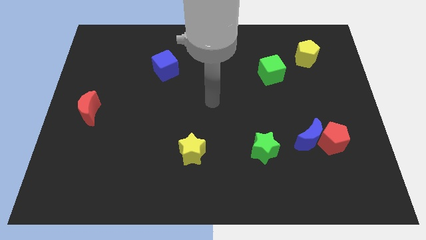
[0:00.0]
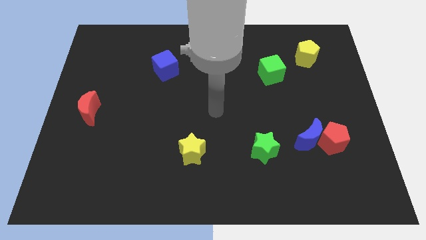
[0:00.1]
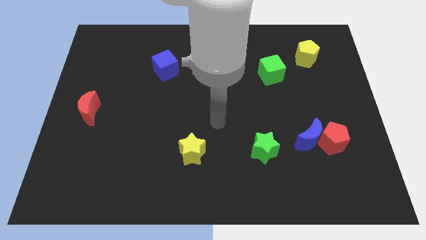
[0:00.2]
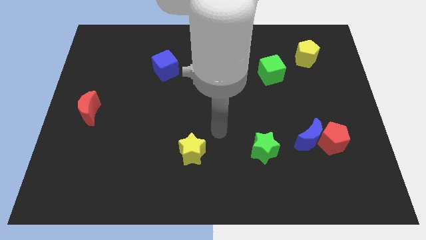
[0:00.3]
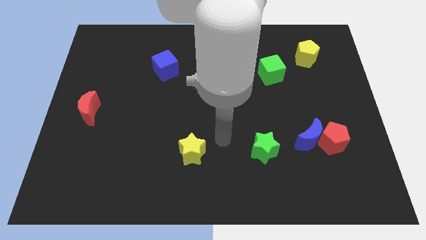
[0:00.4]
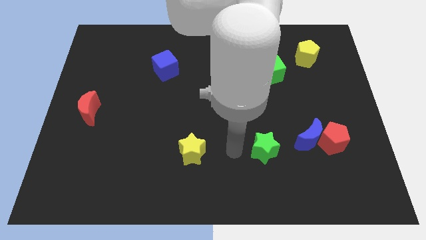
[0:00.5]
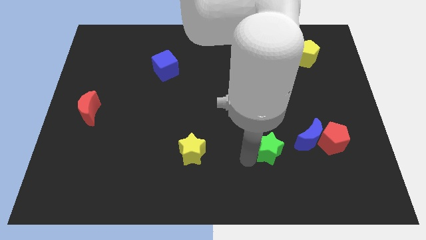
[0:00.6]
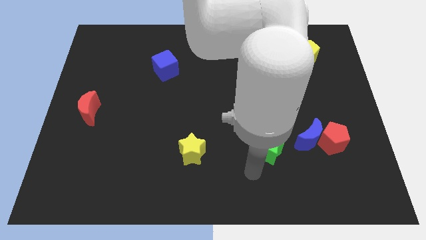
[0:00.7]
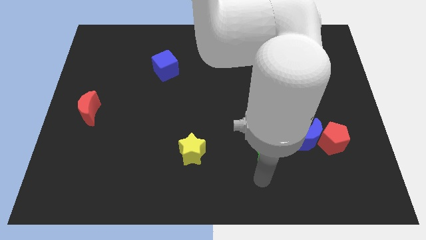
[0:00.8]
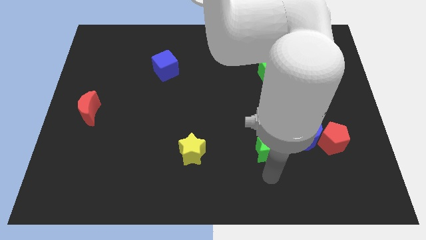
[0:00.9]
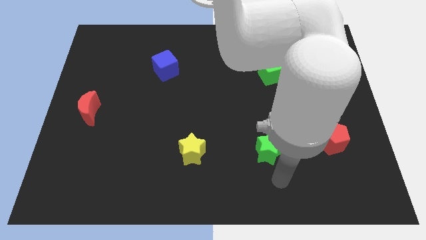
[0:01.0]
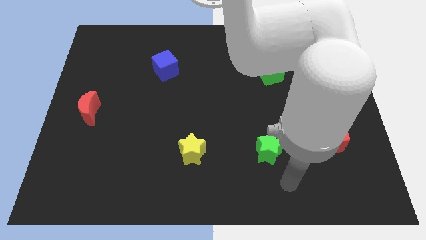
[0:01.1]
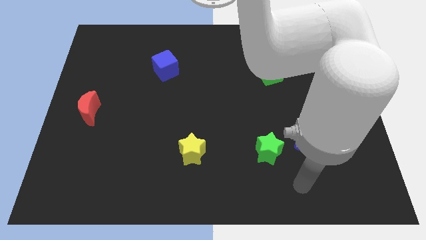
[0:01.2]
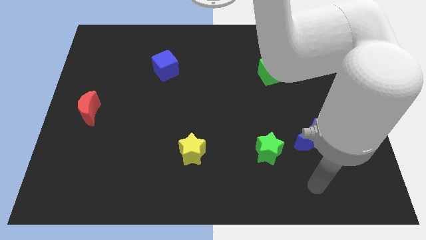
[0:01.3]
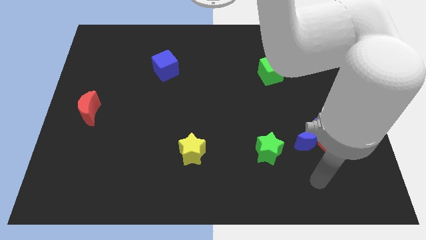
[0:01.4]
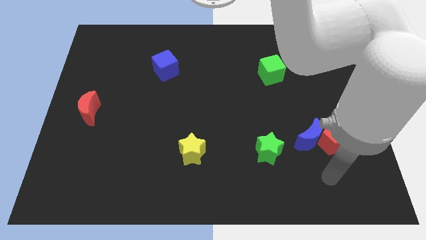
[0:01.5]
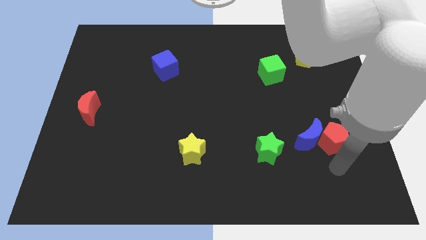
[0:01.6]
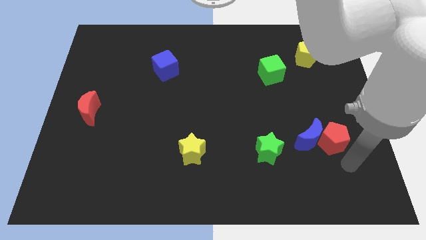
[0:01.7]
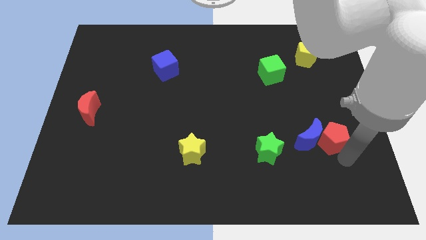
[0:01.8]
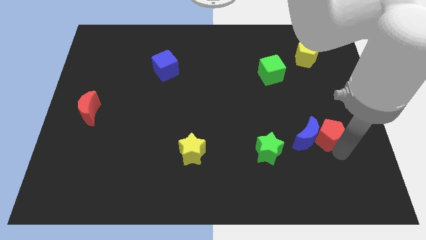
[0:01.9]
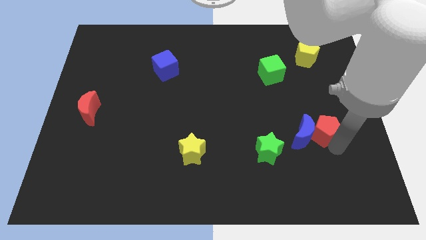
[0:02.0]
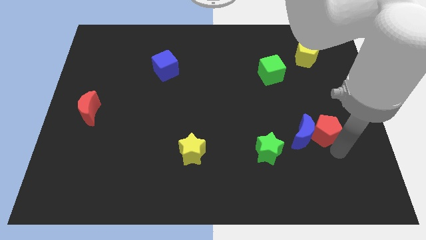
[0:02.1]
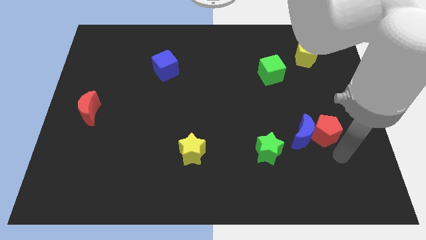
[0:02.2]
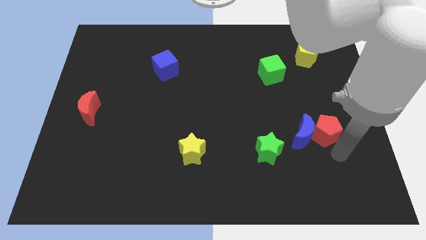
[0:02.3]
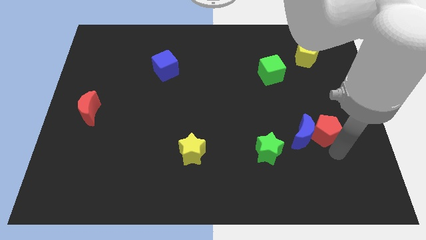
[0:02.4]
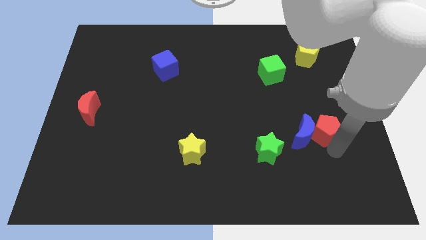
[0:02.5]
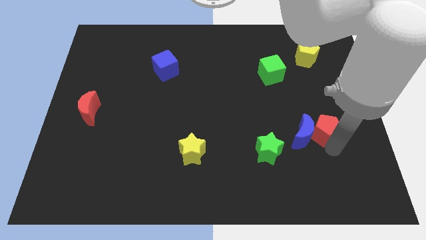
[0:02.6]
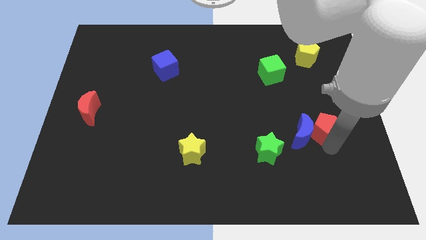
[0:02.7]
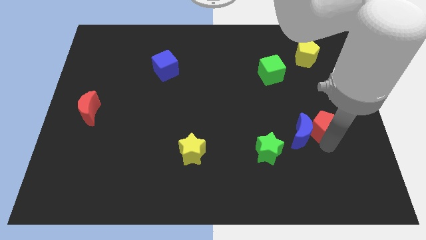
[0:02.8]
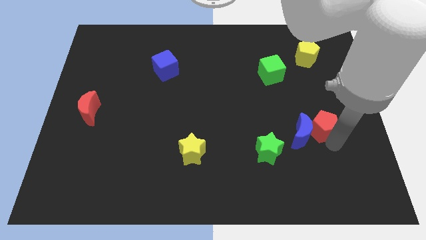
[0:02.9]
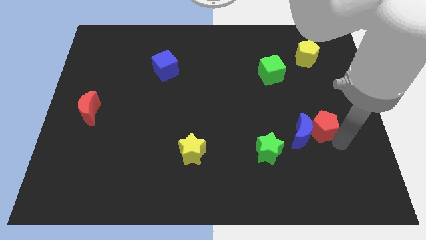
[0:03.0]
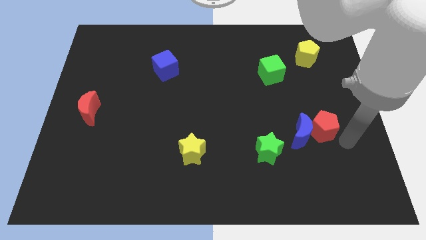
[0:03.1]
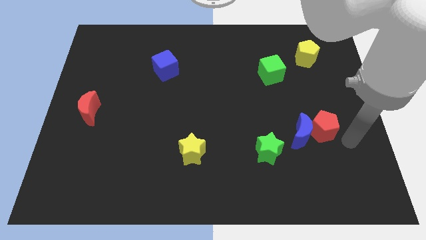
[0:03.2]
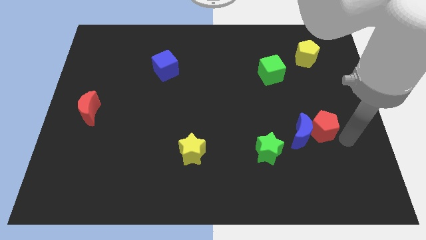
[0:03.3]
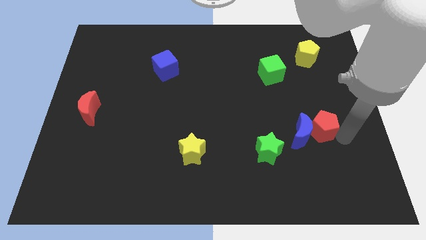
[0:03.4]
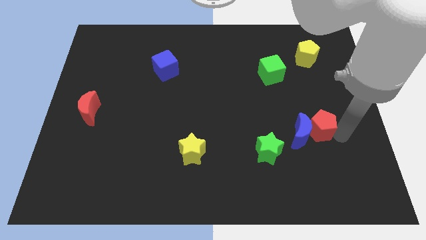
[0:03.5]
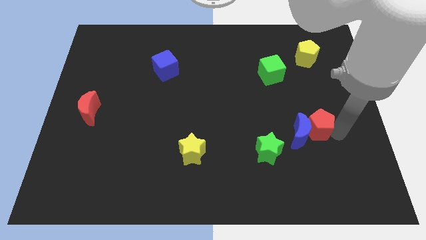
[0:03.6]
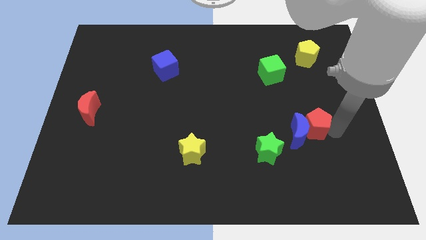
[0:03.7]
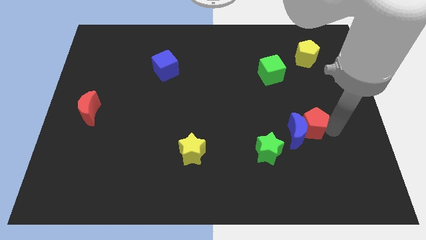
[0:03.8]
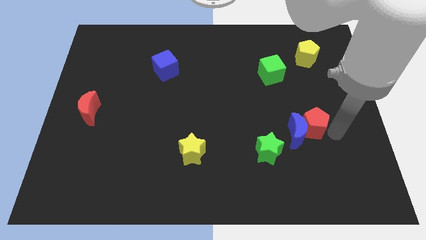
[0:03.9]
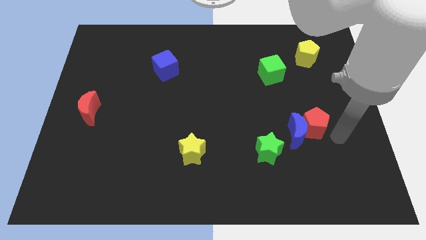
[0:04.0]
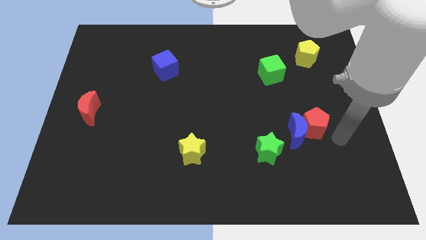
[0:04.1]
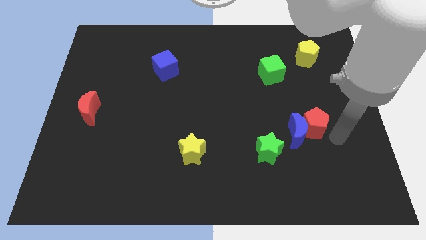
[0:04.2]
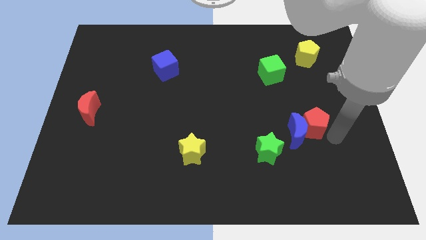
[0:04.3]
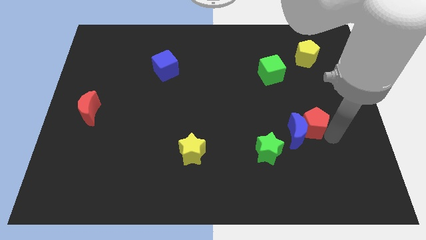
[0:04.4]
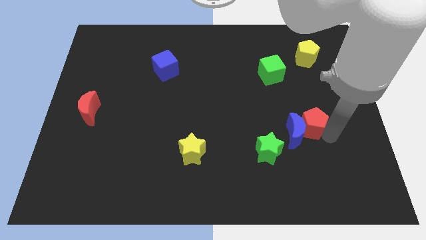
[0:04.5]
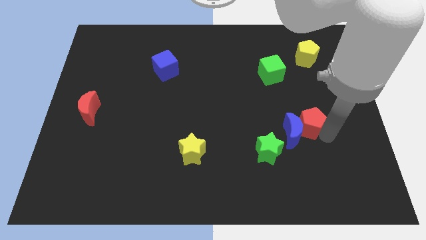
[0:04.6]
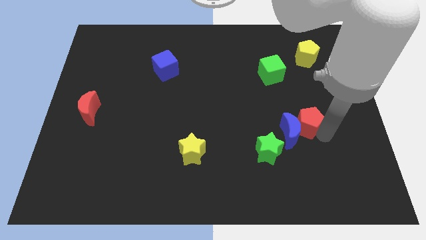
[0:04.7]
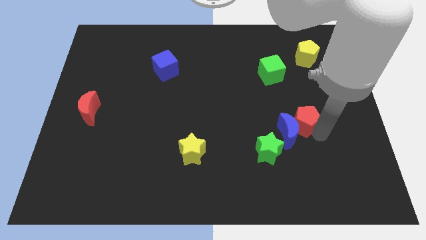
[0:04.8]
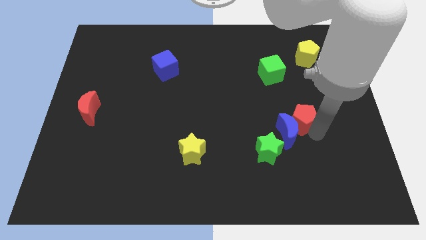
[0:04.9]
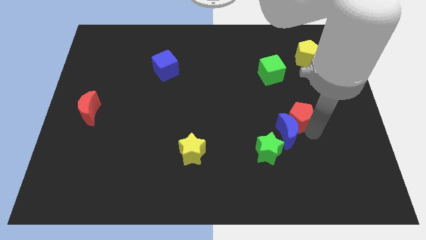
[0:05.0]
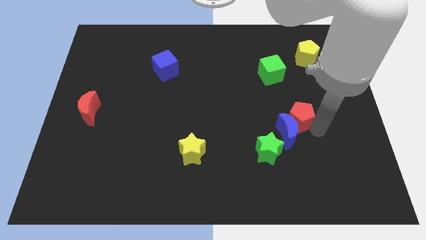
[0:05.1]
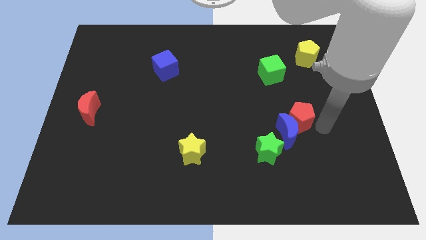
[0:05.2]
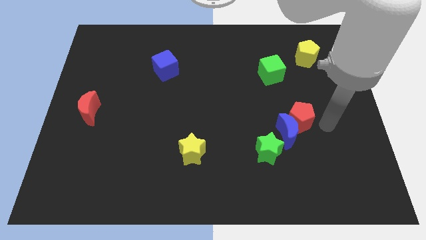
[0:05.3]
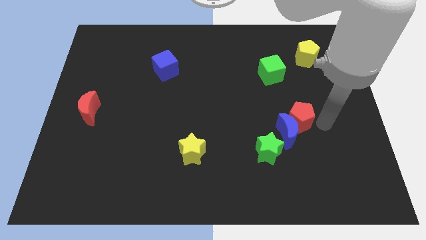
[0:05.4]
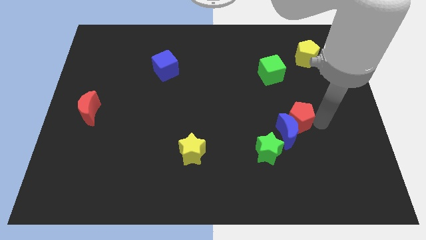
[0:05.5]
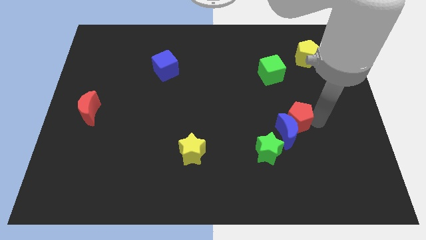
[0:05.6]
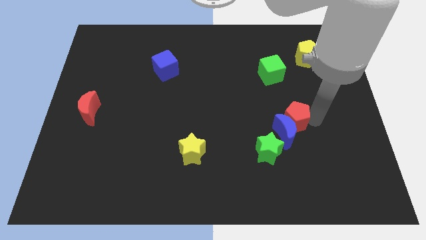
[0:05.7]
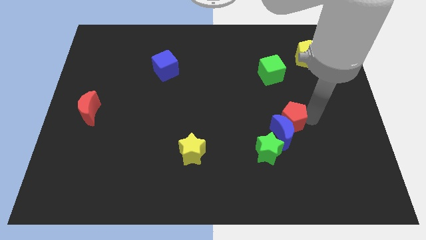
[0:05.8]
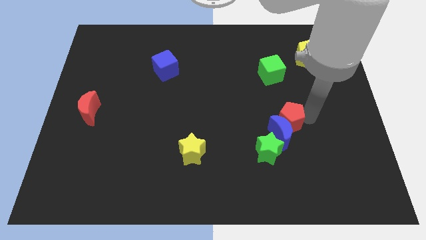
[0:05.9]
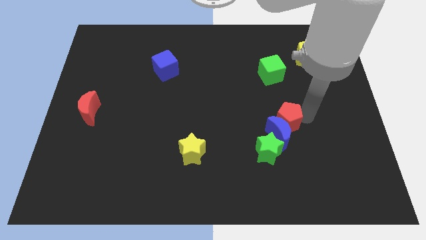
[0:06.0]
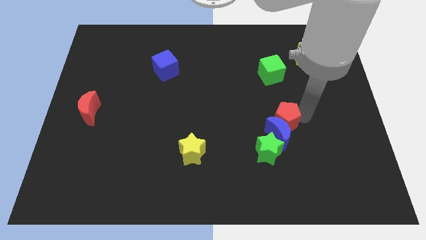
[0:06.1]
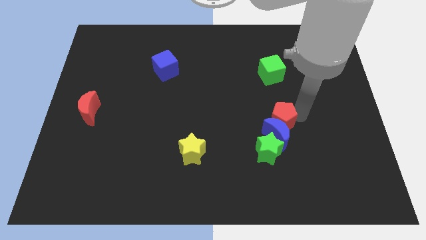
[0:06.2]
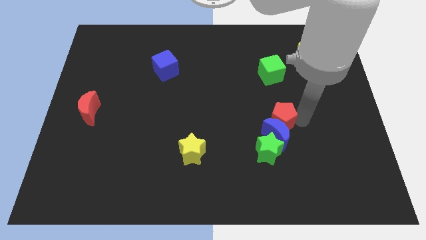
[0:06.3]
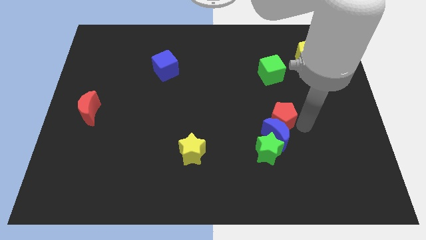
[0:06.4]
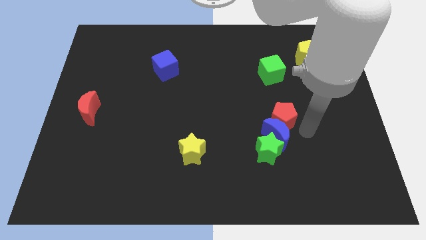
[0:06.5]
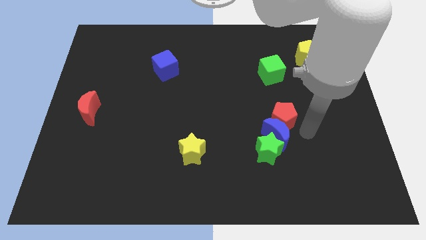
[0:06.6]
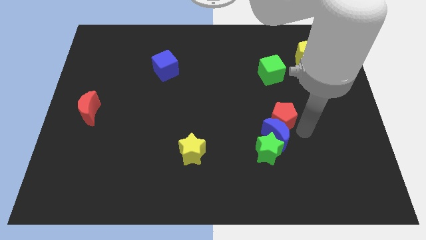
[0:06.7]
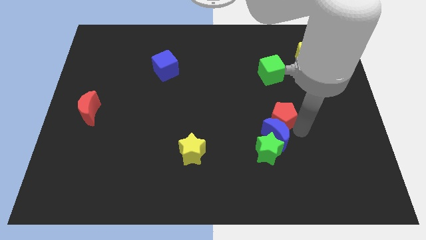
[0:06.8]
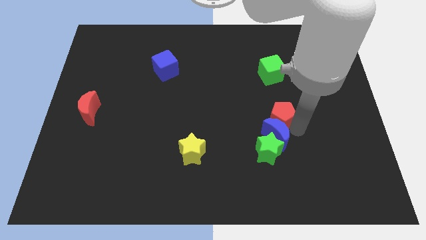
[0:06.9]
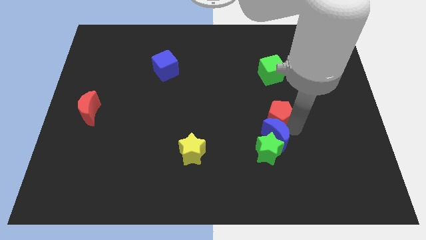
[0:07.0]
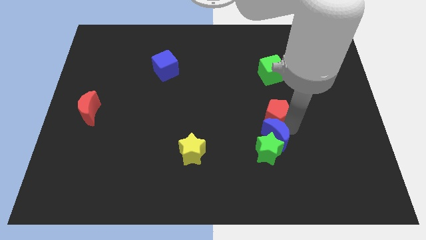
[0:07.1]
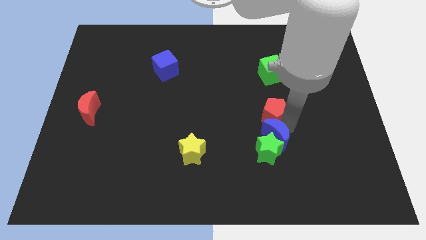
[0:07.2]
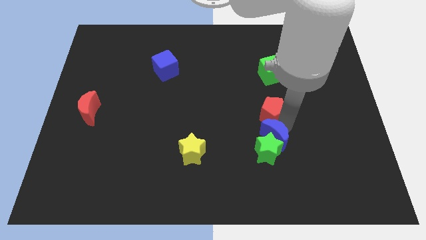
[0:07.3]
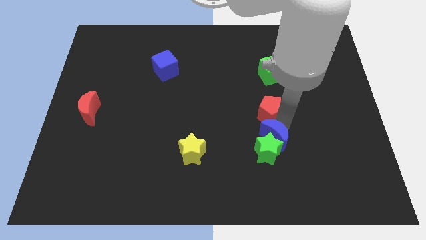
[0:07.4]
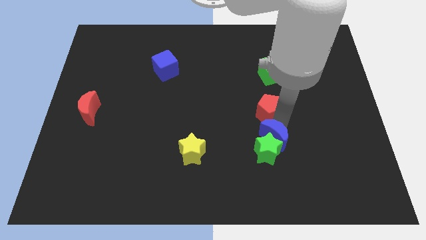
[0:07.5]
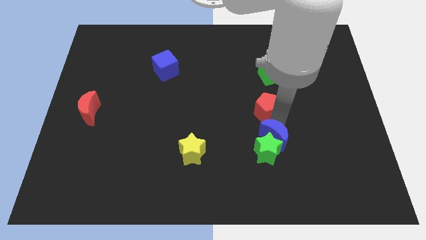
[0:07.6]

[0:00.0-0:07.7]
push the red pentagon to the center
